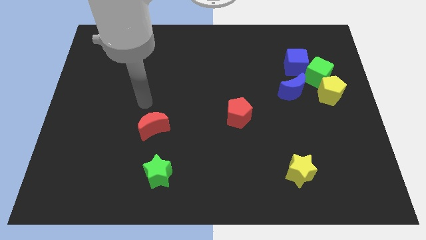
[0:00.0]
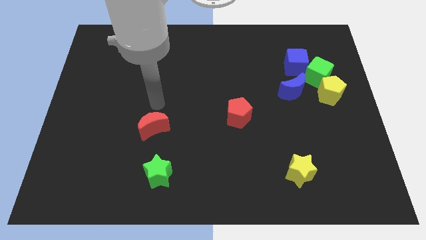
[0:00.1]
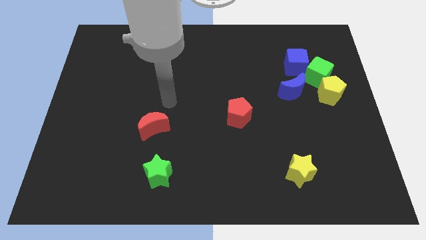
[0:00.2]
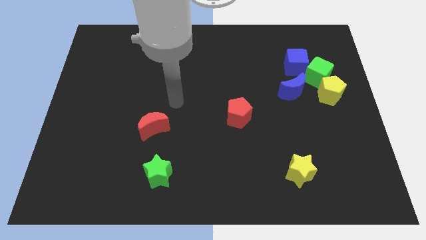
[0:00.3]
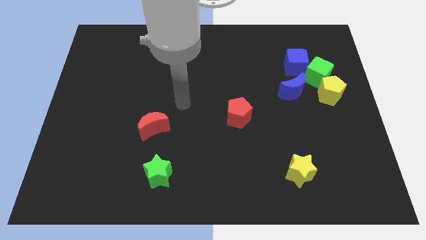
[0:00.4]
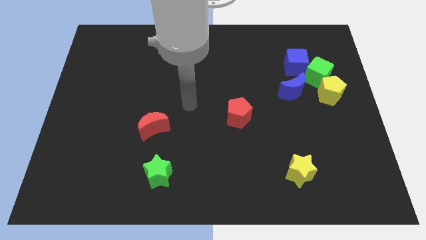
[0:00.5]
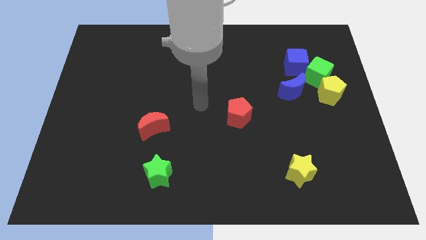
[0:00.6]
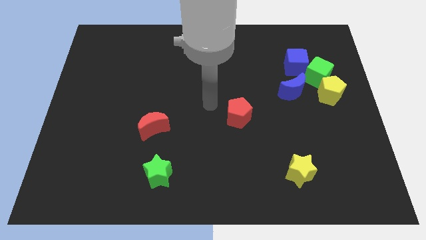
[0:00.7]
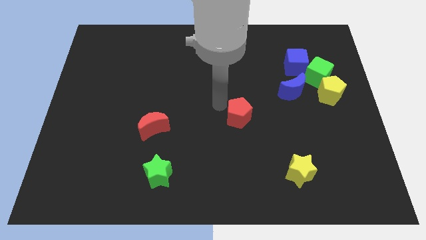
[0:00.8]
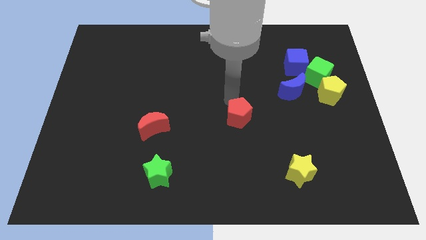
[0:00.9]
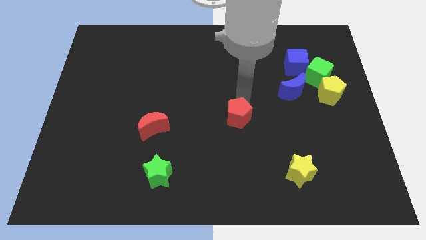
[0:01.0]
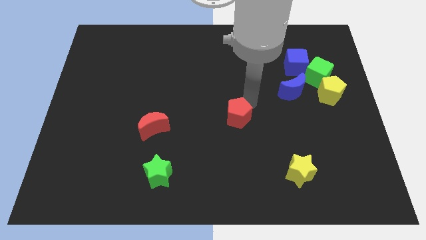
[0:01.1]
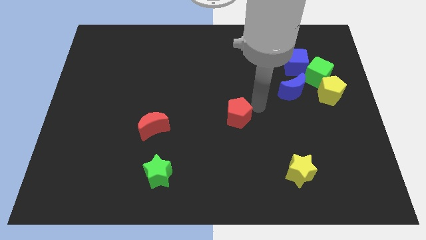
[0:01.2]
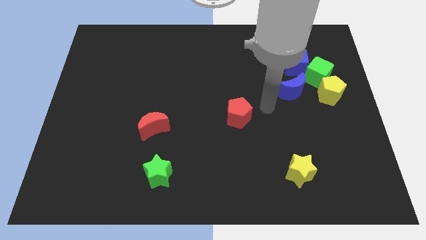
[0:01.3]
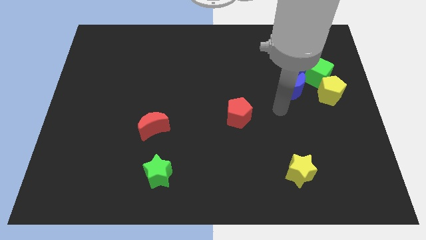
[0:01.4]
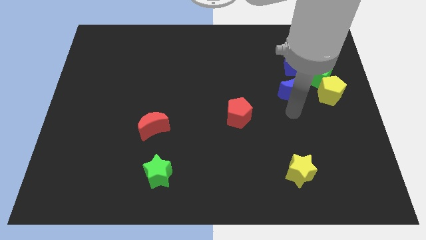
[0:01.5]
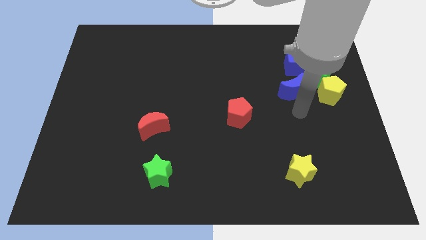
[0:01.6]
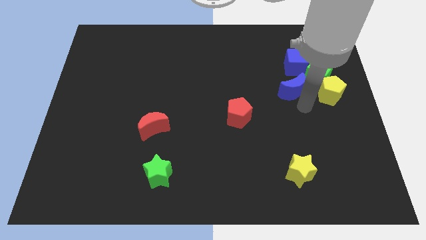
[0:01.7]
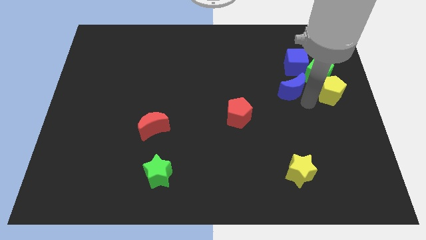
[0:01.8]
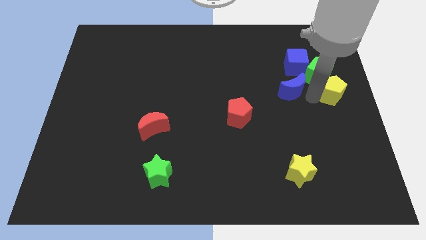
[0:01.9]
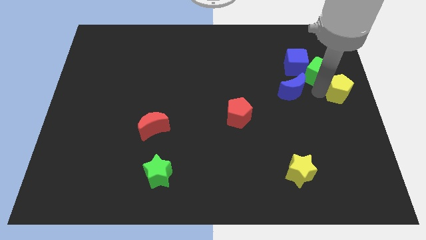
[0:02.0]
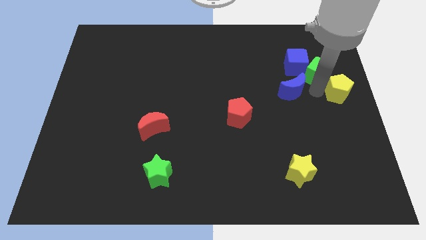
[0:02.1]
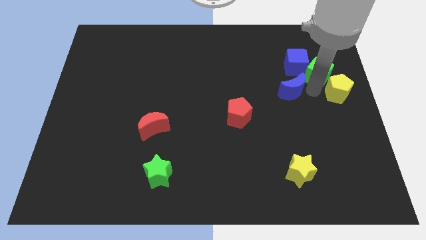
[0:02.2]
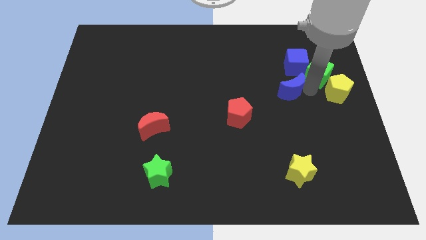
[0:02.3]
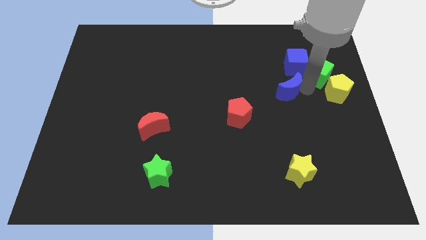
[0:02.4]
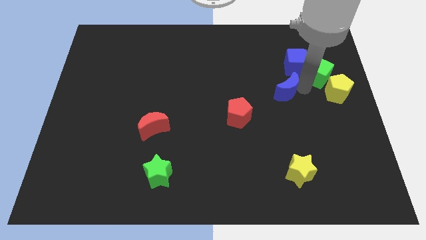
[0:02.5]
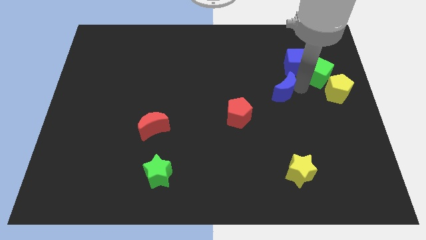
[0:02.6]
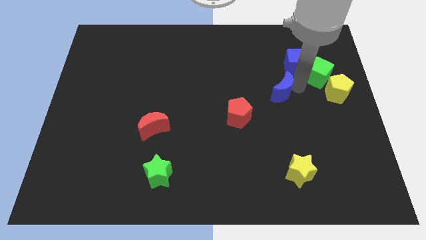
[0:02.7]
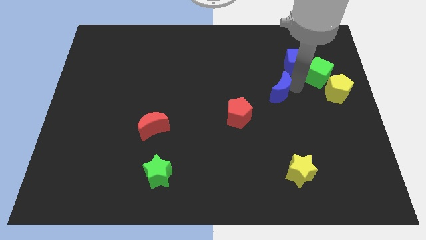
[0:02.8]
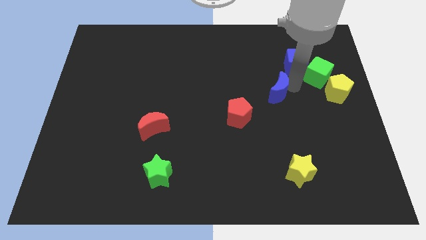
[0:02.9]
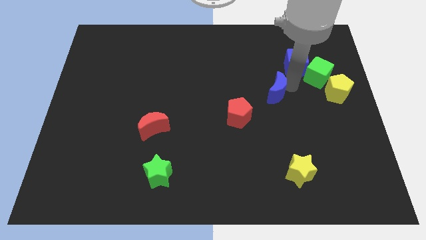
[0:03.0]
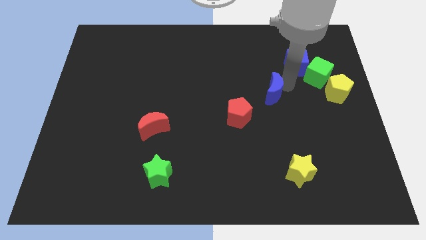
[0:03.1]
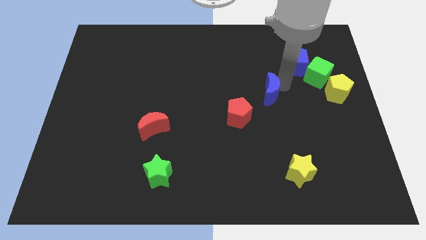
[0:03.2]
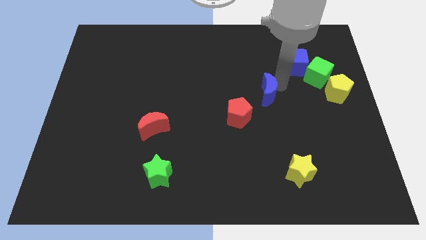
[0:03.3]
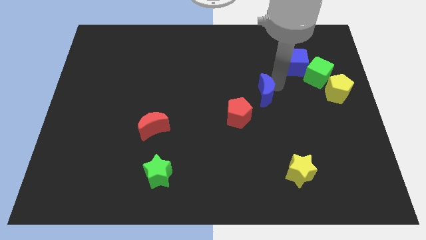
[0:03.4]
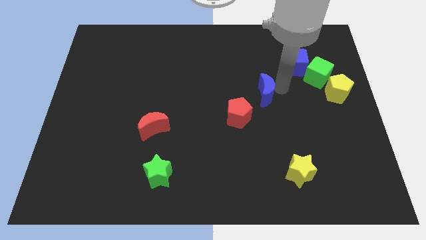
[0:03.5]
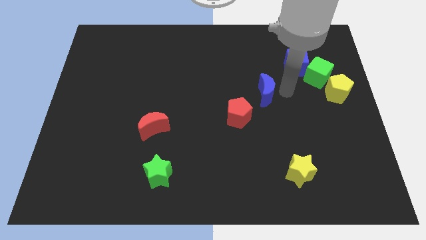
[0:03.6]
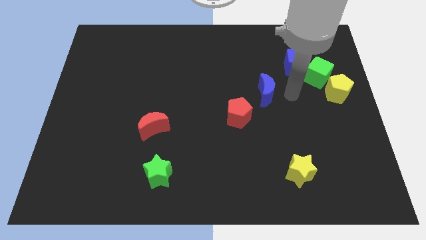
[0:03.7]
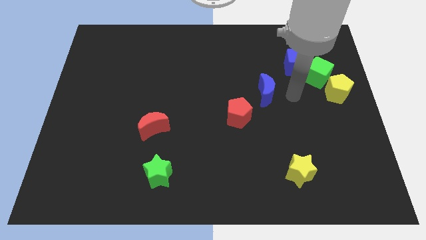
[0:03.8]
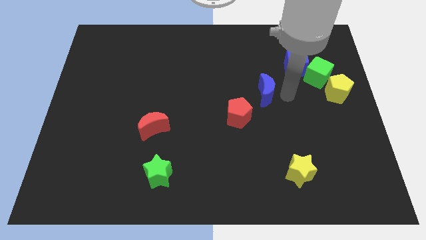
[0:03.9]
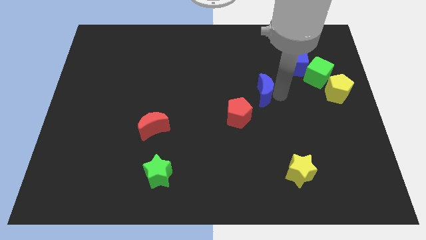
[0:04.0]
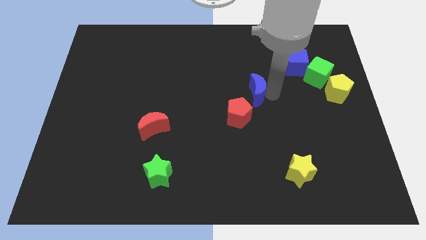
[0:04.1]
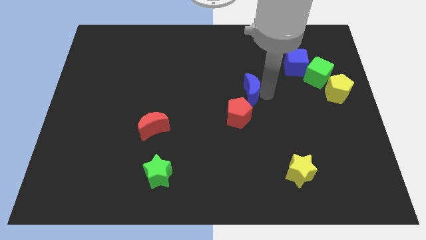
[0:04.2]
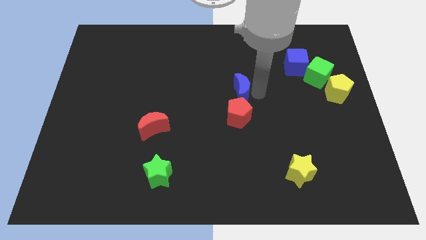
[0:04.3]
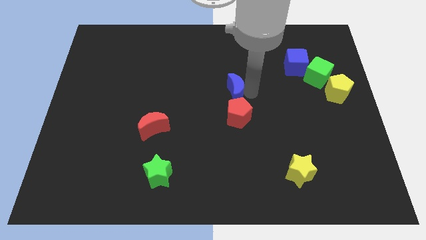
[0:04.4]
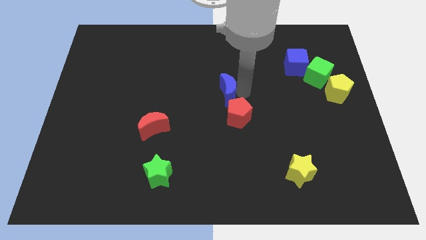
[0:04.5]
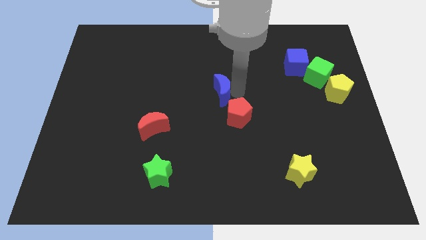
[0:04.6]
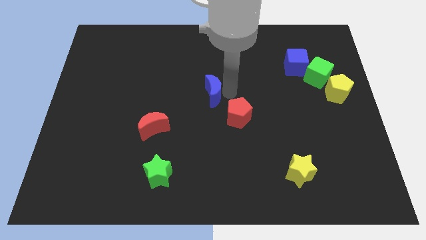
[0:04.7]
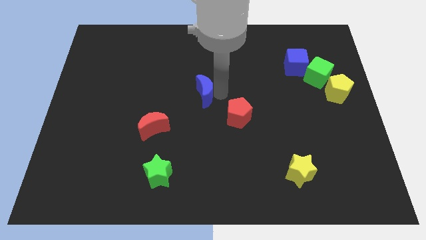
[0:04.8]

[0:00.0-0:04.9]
slide the blue moon left

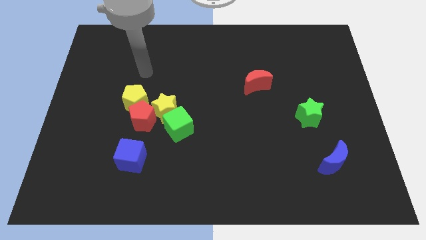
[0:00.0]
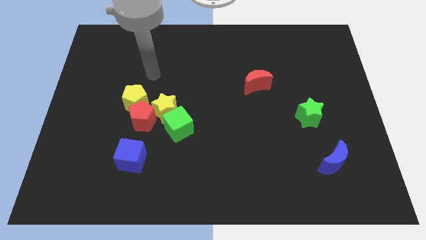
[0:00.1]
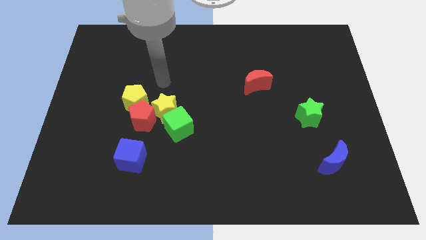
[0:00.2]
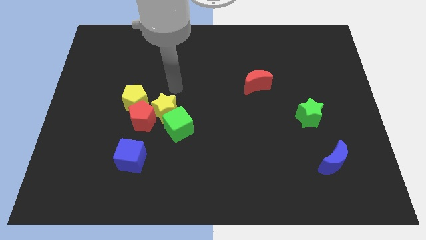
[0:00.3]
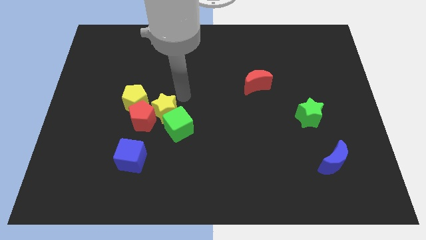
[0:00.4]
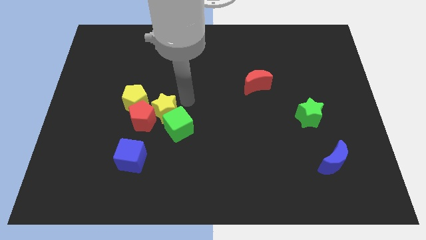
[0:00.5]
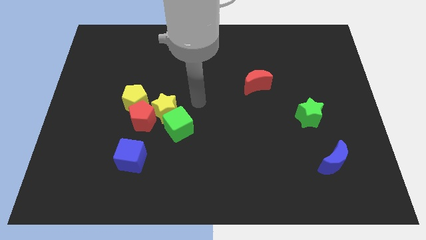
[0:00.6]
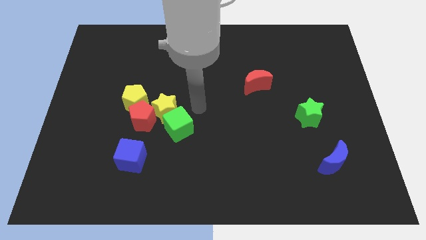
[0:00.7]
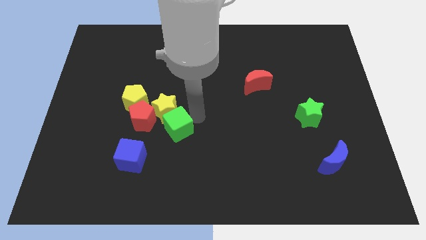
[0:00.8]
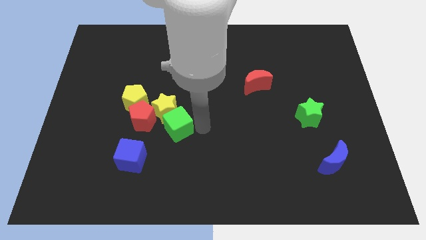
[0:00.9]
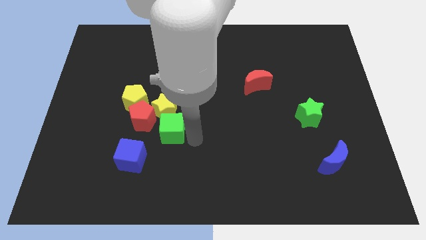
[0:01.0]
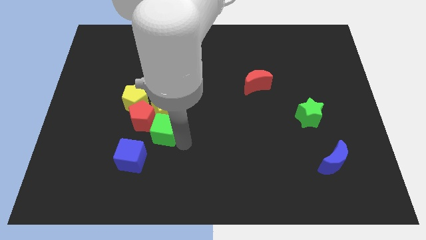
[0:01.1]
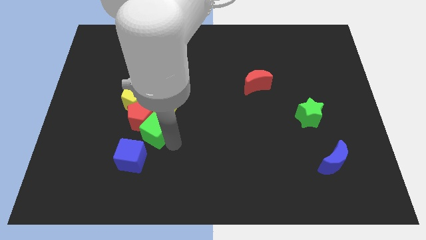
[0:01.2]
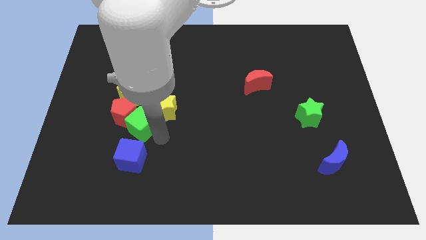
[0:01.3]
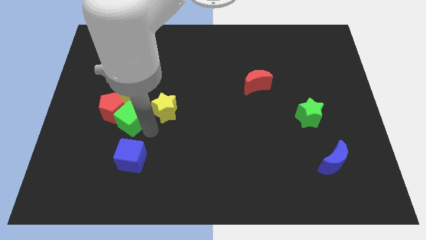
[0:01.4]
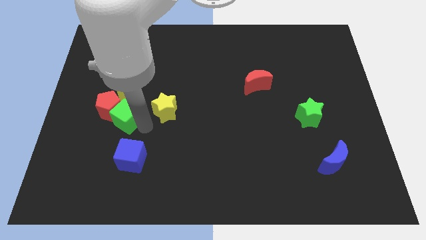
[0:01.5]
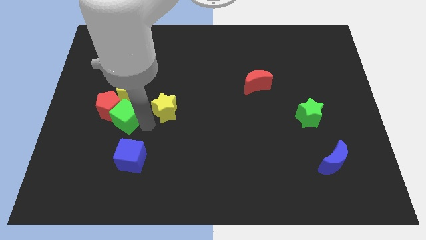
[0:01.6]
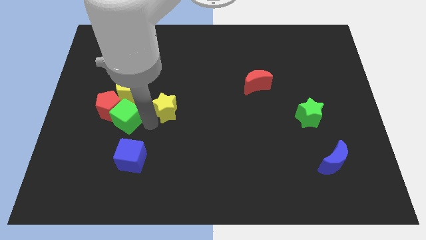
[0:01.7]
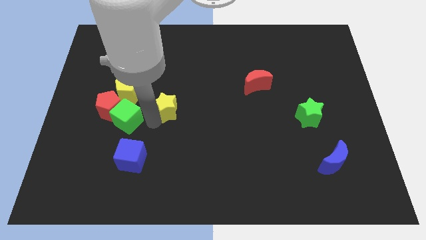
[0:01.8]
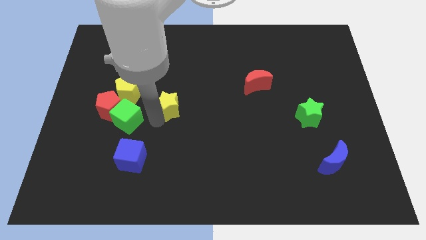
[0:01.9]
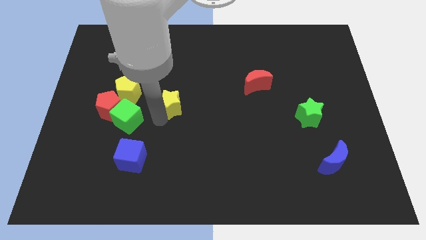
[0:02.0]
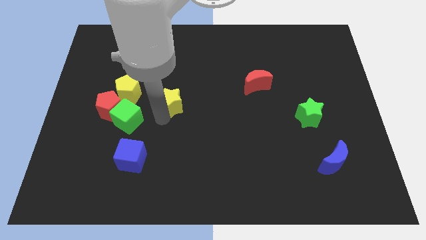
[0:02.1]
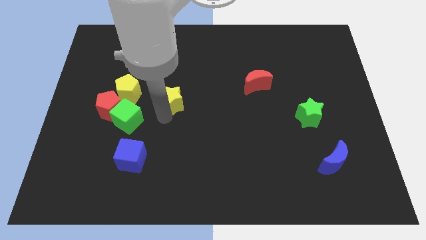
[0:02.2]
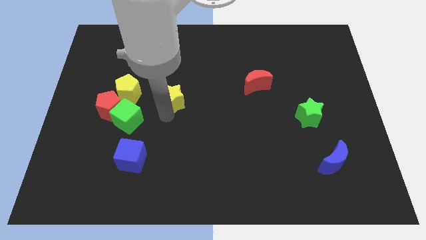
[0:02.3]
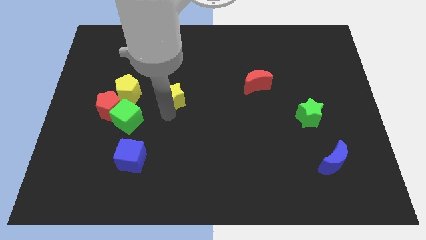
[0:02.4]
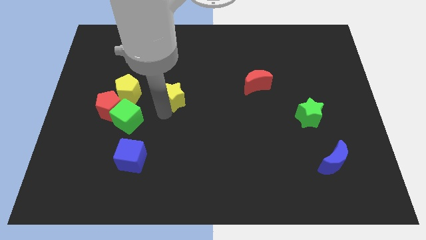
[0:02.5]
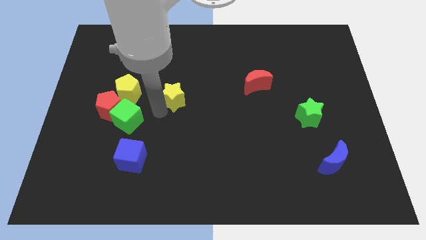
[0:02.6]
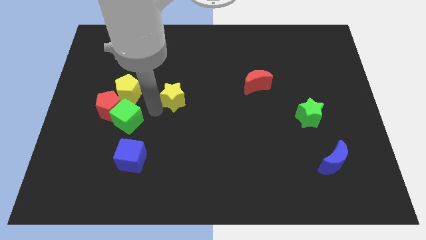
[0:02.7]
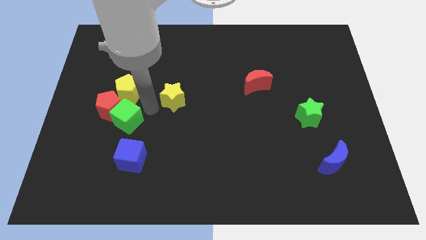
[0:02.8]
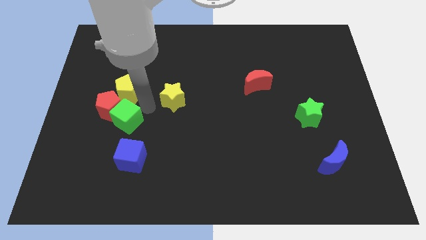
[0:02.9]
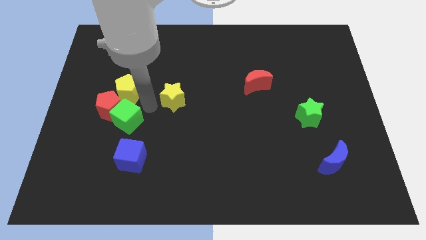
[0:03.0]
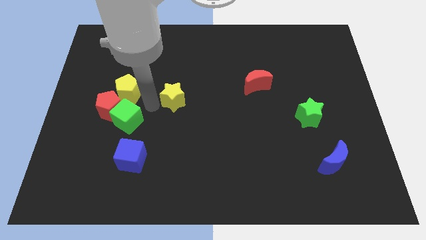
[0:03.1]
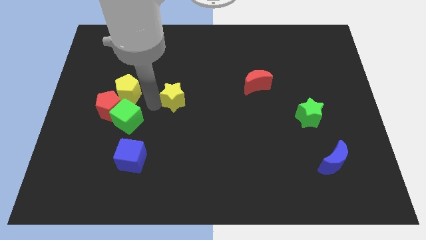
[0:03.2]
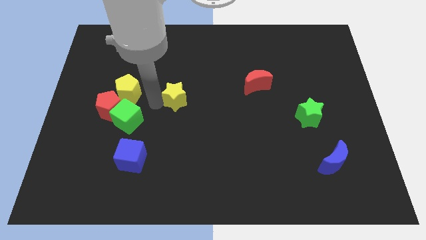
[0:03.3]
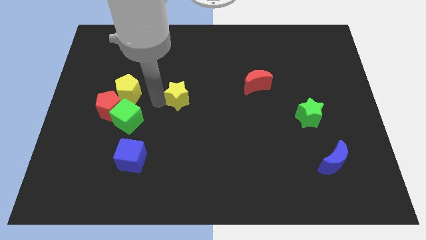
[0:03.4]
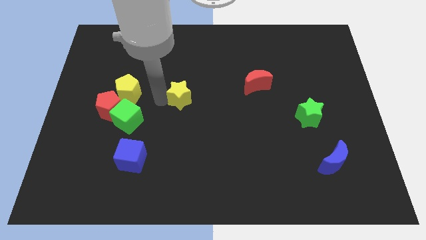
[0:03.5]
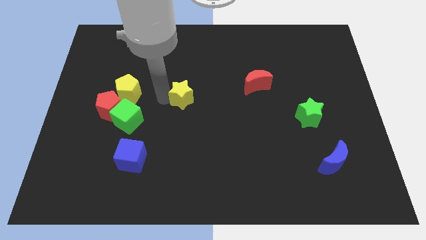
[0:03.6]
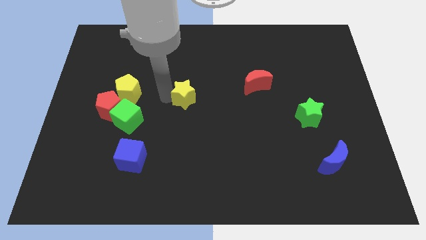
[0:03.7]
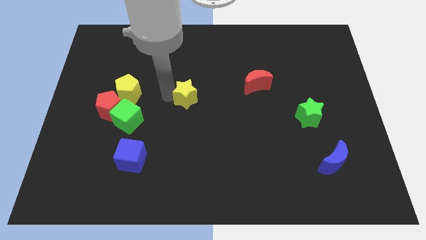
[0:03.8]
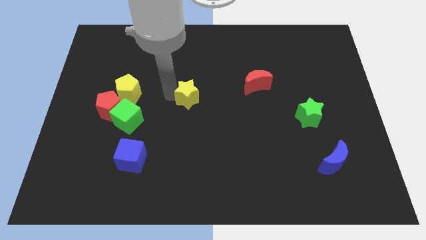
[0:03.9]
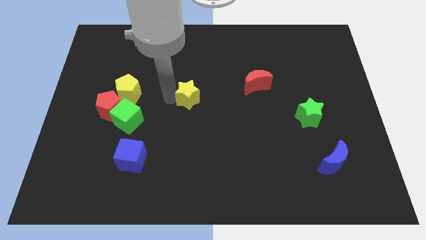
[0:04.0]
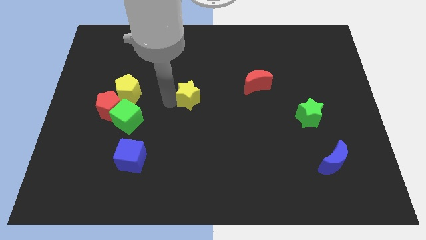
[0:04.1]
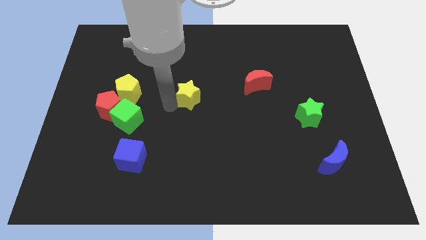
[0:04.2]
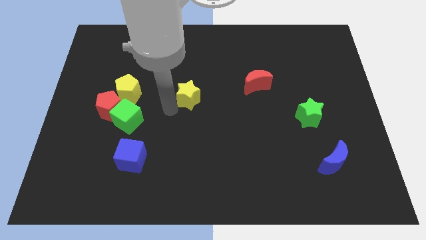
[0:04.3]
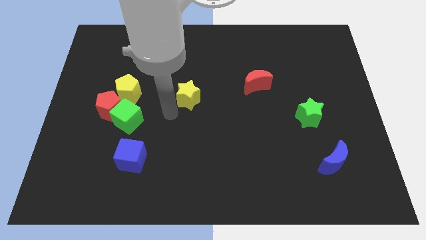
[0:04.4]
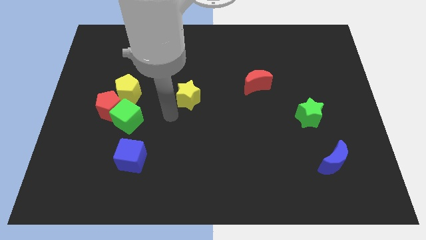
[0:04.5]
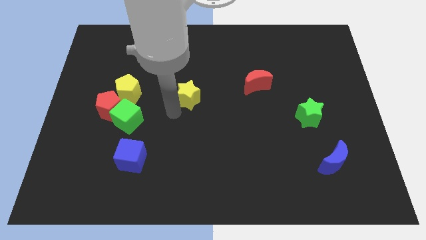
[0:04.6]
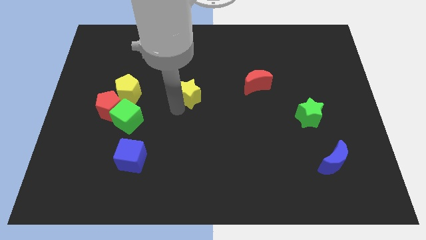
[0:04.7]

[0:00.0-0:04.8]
move the yellow star a little up and then right
